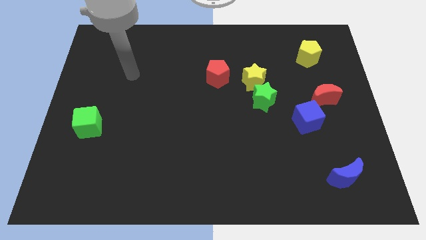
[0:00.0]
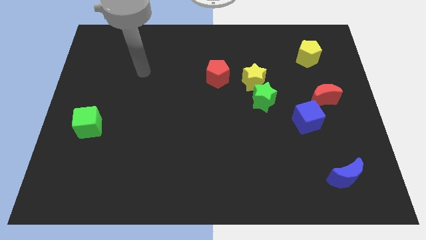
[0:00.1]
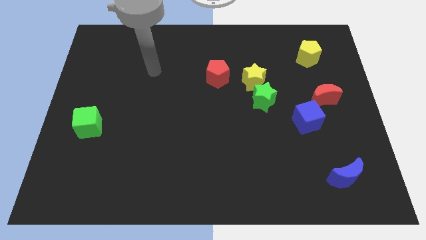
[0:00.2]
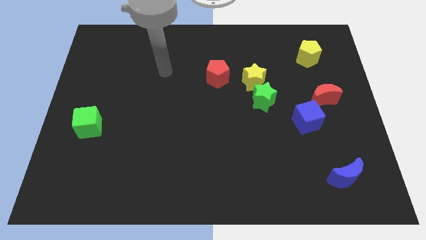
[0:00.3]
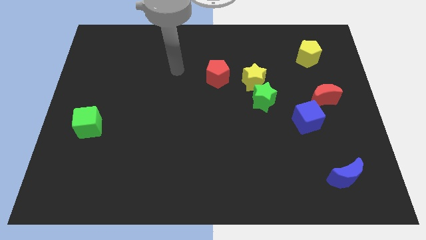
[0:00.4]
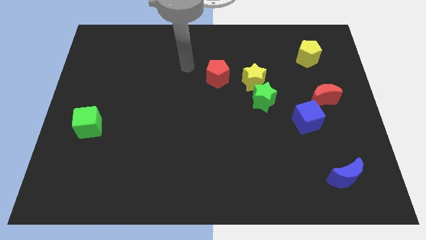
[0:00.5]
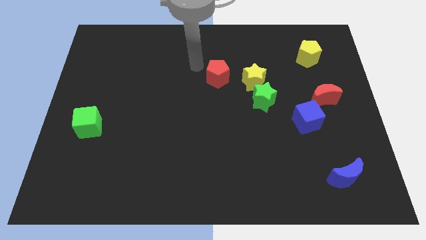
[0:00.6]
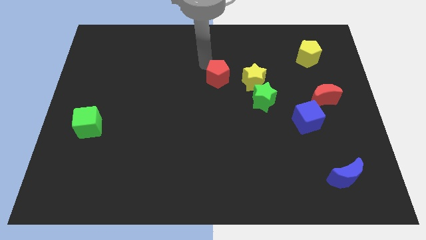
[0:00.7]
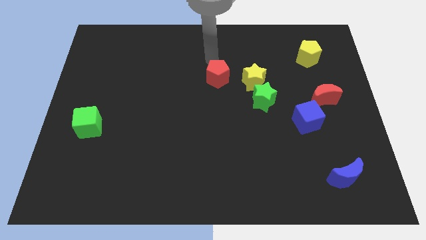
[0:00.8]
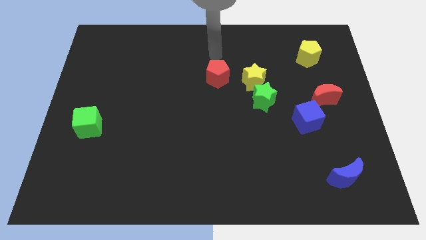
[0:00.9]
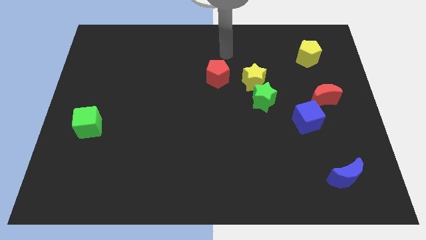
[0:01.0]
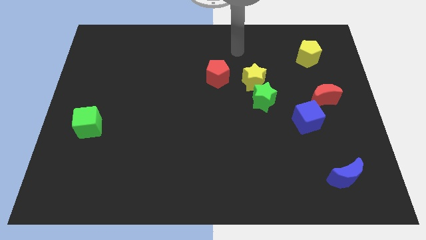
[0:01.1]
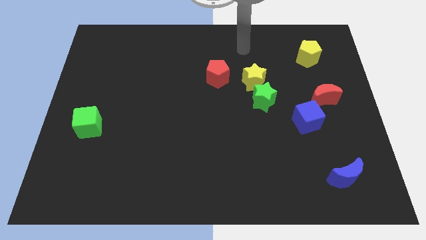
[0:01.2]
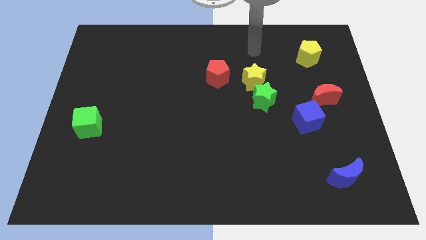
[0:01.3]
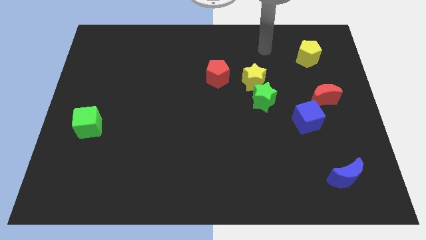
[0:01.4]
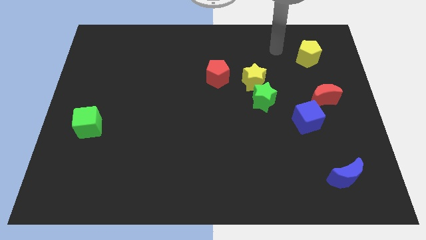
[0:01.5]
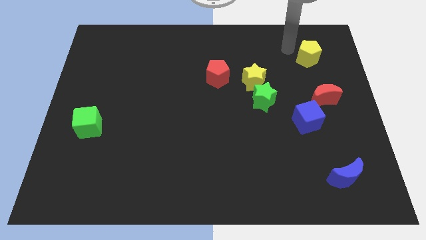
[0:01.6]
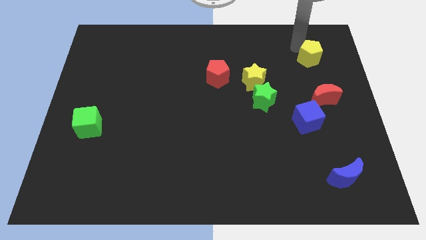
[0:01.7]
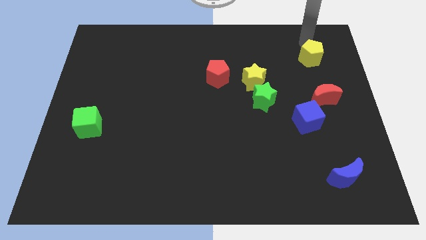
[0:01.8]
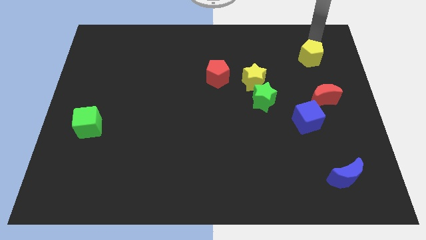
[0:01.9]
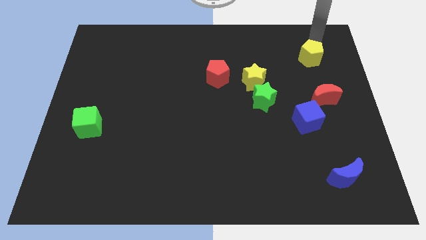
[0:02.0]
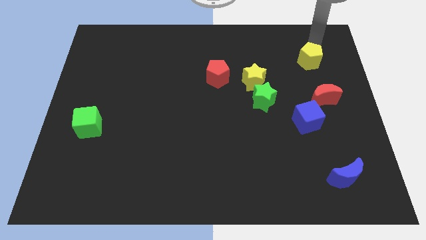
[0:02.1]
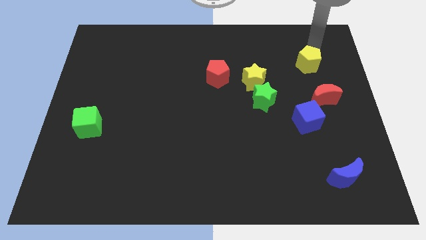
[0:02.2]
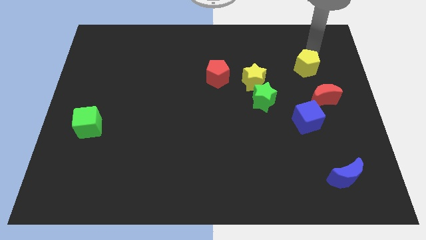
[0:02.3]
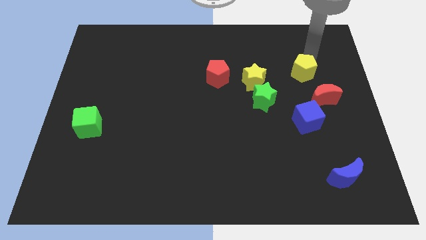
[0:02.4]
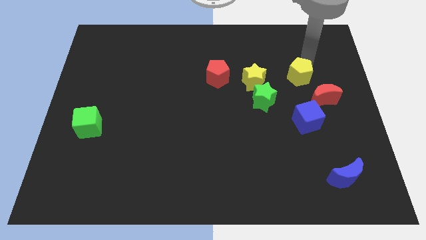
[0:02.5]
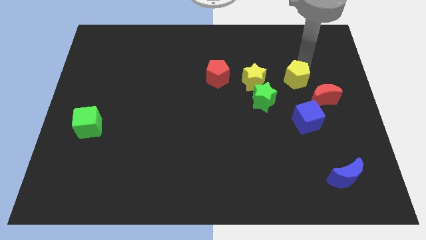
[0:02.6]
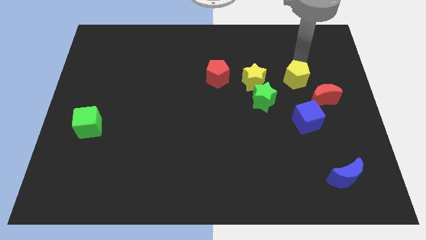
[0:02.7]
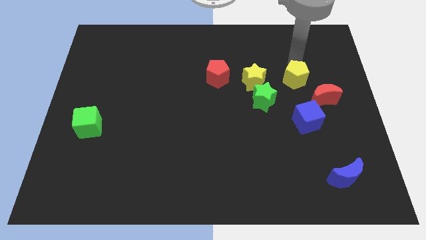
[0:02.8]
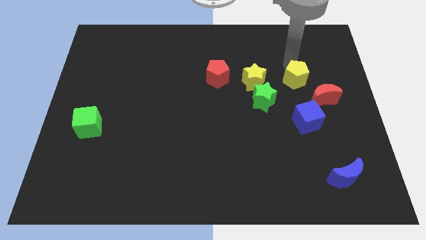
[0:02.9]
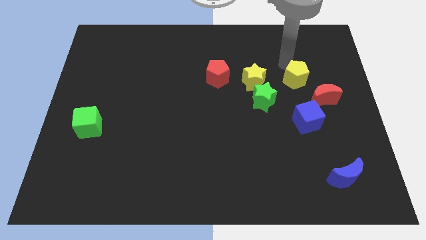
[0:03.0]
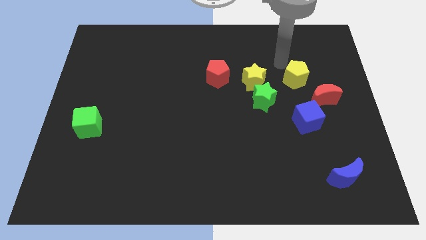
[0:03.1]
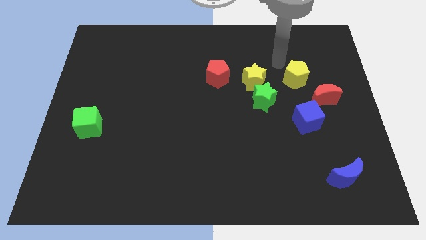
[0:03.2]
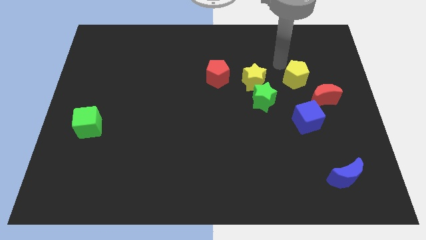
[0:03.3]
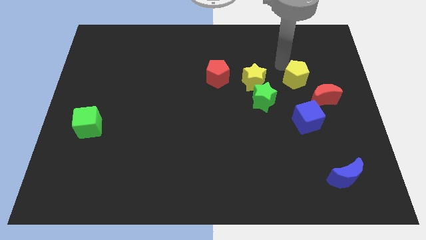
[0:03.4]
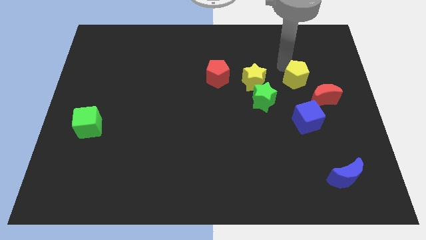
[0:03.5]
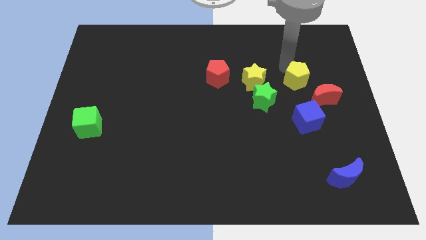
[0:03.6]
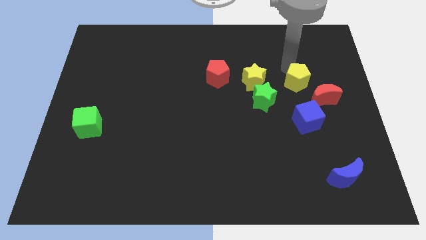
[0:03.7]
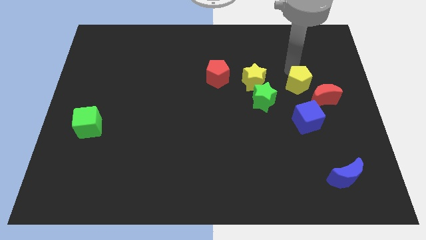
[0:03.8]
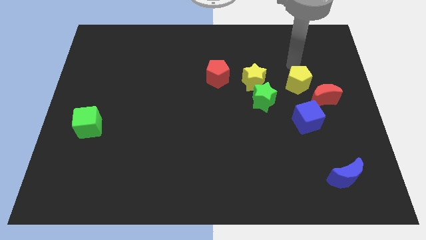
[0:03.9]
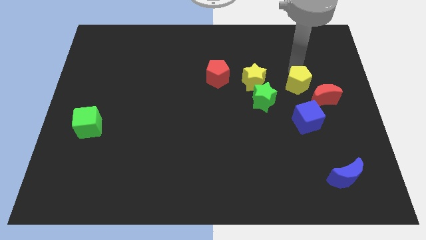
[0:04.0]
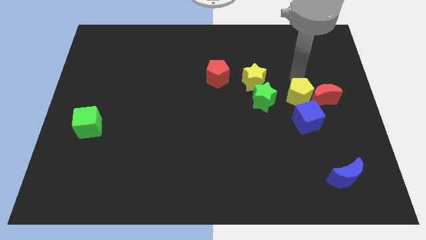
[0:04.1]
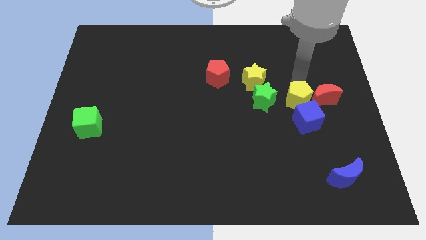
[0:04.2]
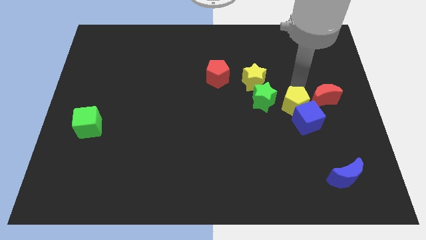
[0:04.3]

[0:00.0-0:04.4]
push the yellow pentagon close to the blue cube

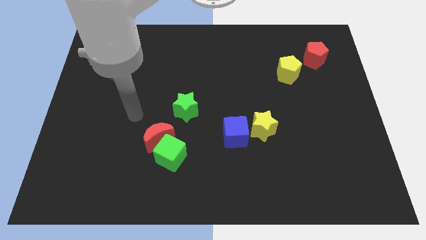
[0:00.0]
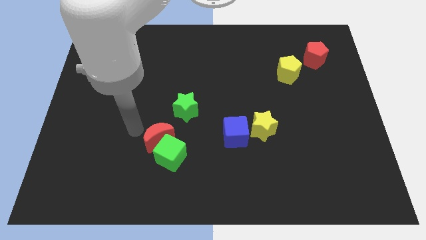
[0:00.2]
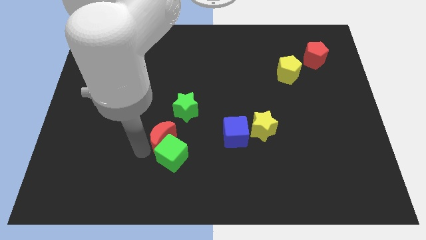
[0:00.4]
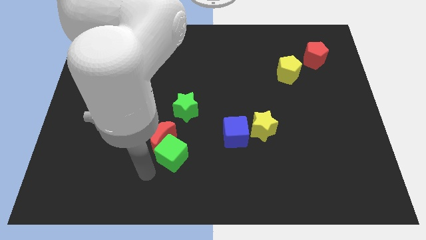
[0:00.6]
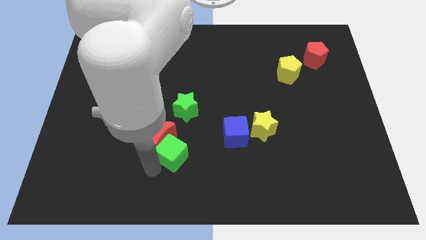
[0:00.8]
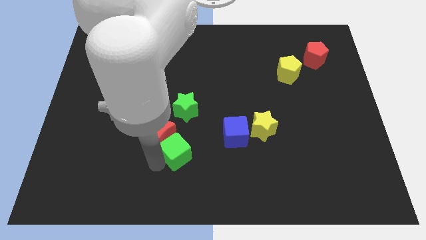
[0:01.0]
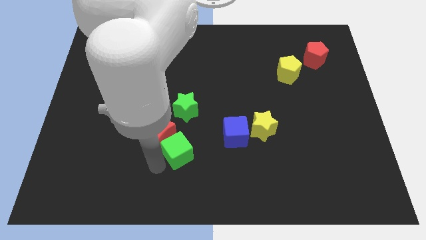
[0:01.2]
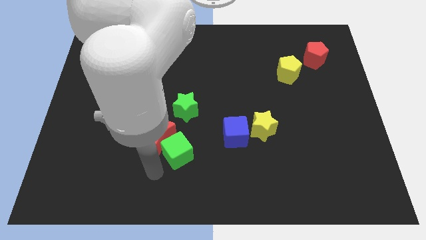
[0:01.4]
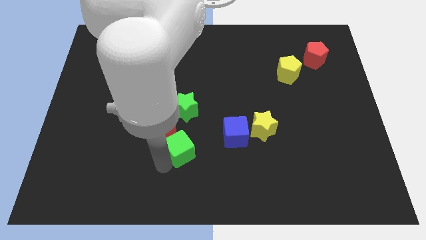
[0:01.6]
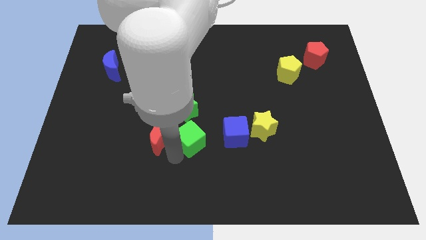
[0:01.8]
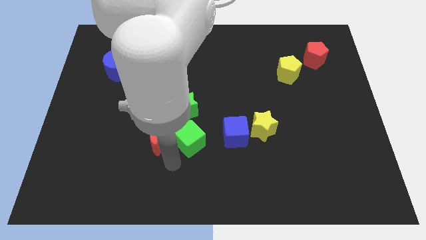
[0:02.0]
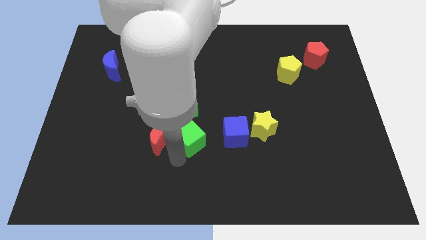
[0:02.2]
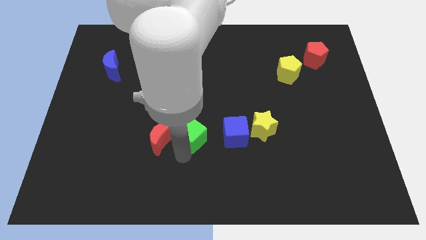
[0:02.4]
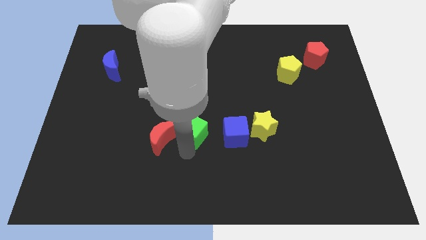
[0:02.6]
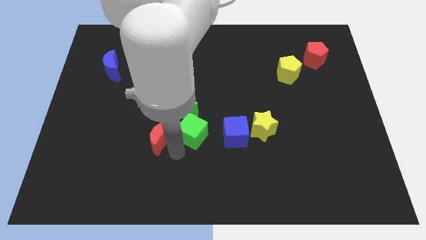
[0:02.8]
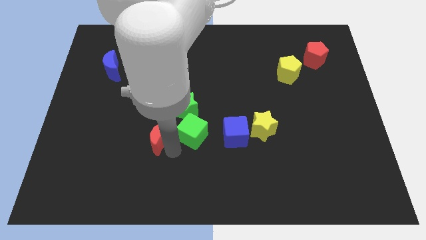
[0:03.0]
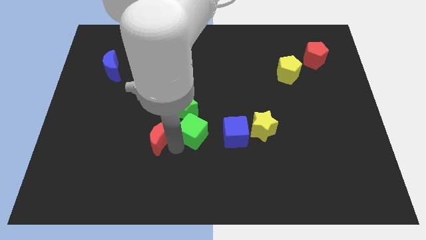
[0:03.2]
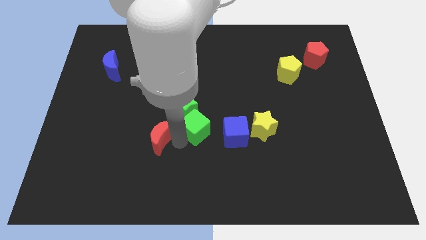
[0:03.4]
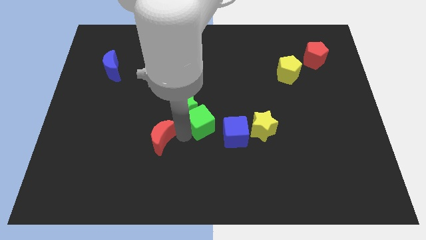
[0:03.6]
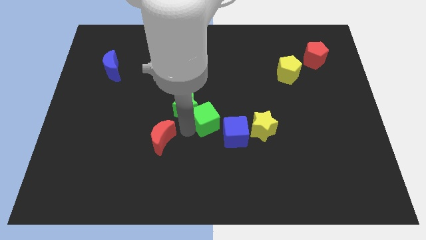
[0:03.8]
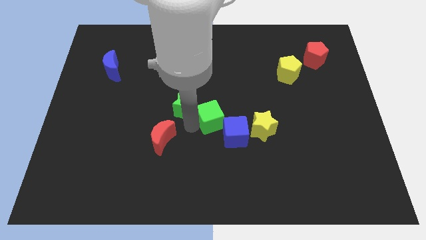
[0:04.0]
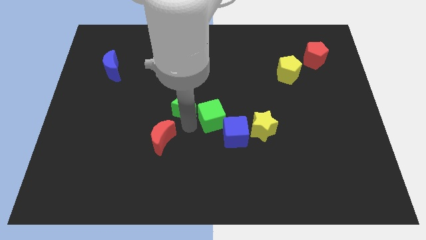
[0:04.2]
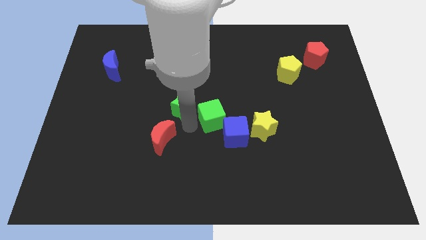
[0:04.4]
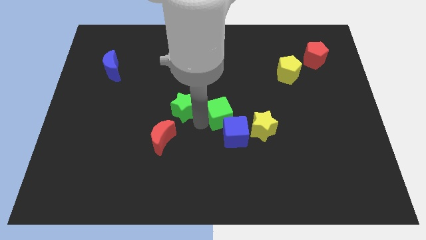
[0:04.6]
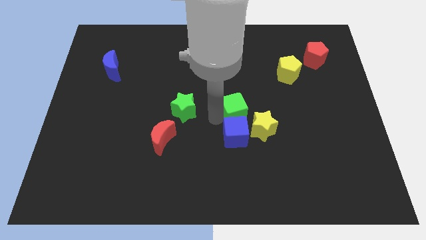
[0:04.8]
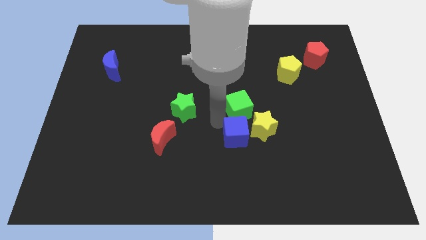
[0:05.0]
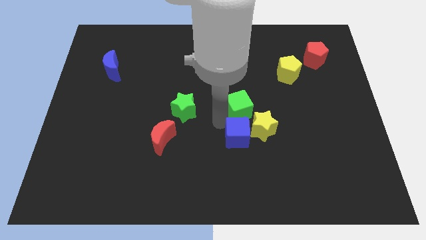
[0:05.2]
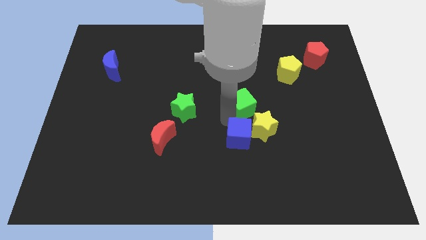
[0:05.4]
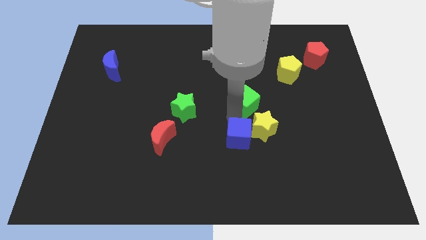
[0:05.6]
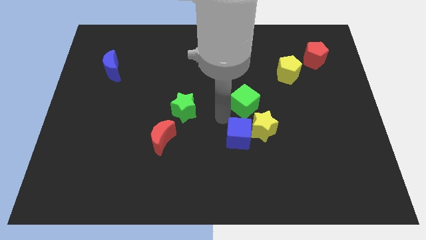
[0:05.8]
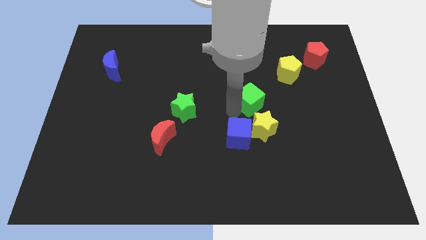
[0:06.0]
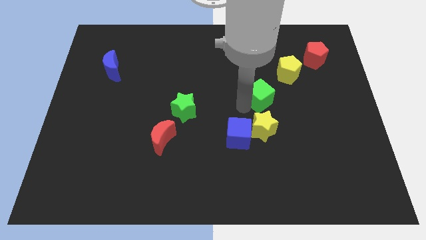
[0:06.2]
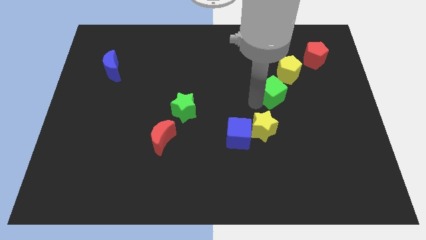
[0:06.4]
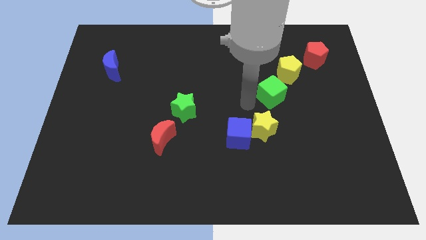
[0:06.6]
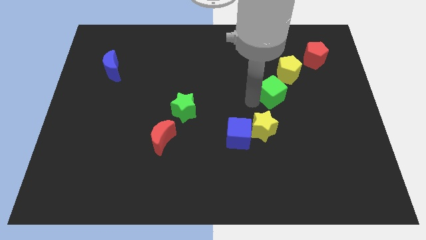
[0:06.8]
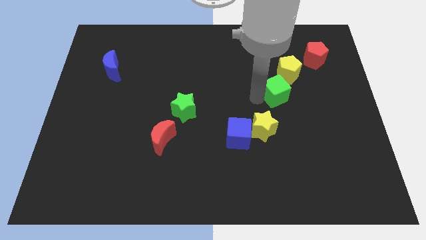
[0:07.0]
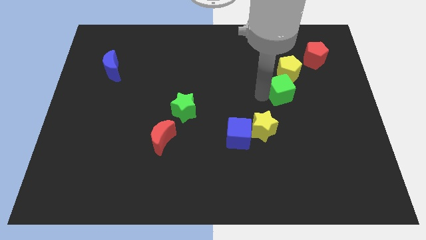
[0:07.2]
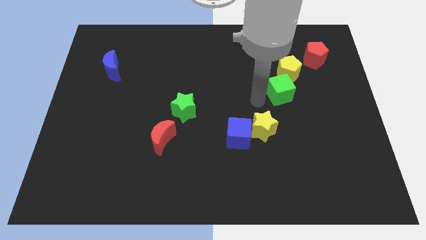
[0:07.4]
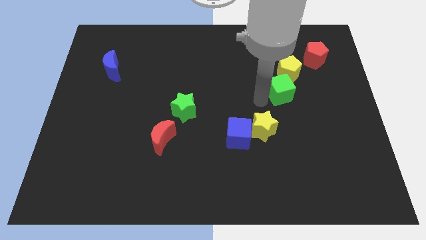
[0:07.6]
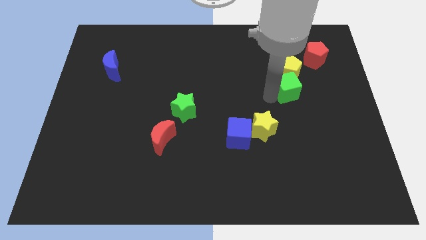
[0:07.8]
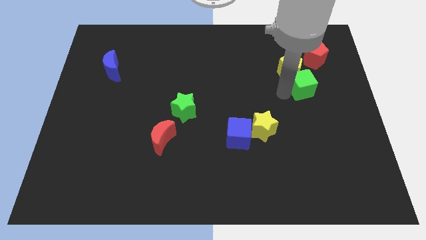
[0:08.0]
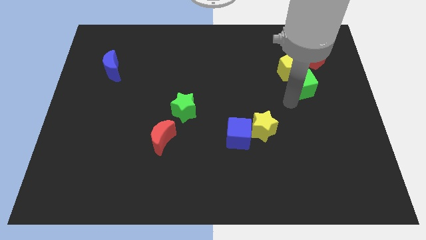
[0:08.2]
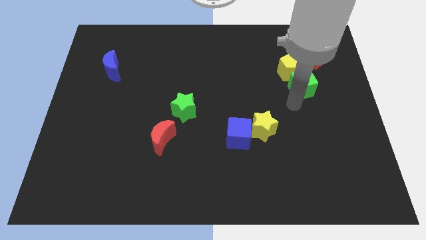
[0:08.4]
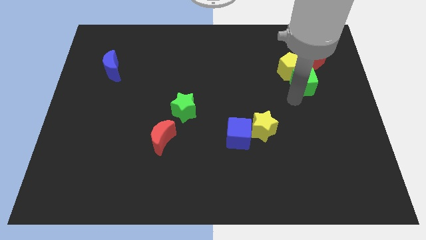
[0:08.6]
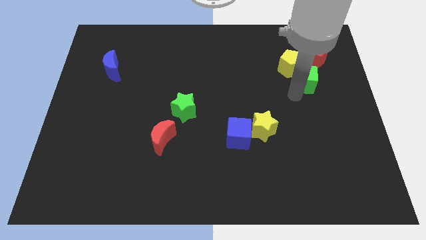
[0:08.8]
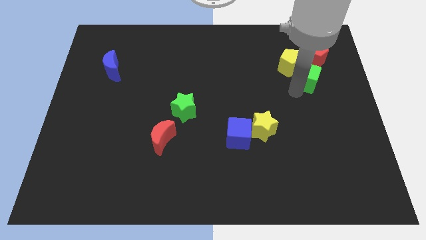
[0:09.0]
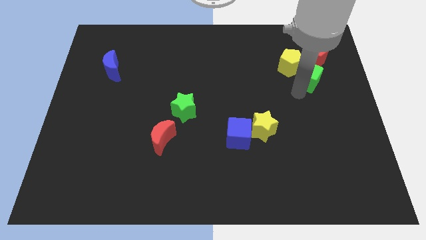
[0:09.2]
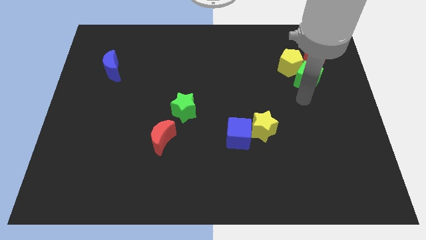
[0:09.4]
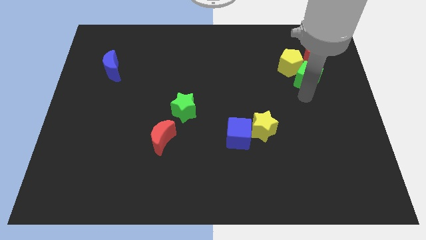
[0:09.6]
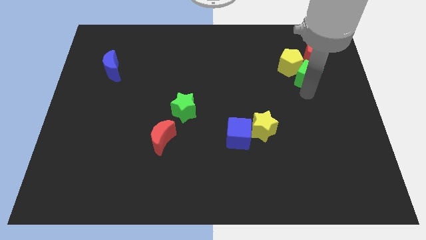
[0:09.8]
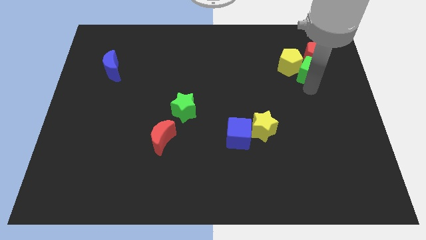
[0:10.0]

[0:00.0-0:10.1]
move the green cube towards the red pentagon
